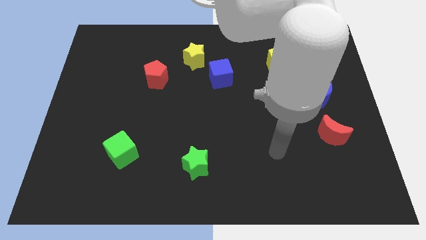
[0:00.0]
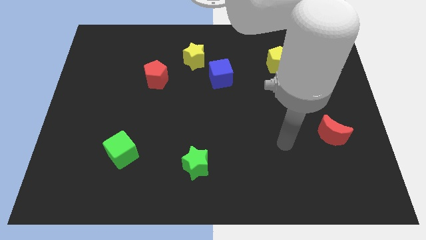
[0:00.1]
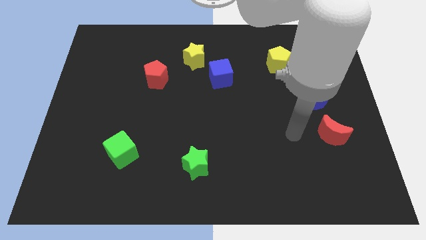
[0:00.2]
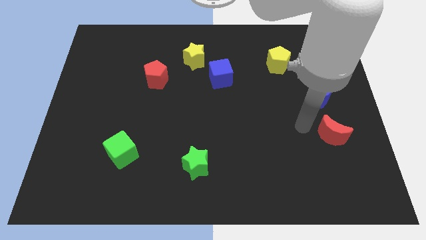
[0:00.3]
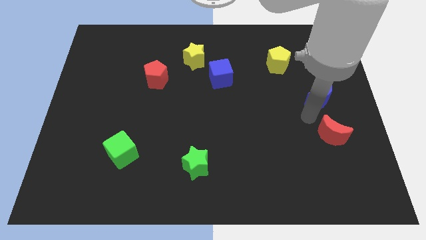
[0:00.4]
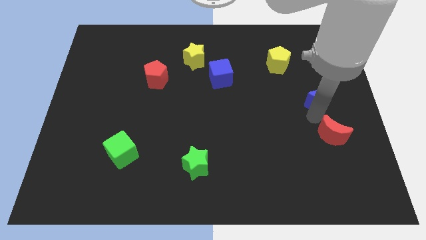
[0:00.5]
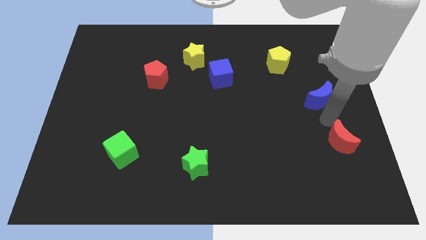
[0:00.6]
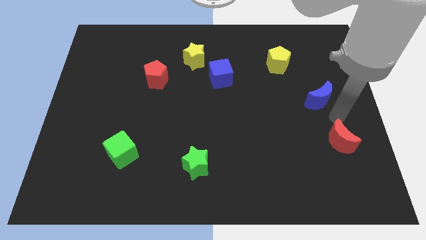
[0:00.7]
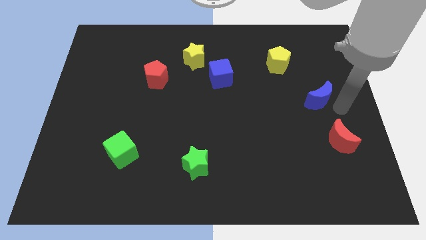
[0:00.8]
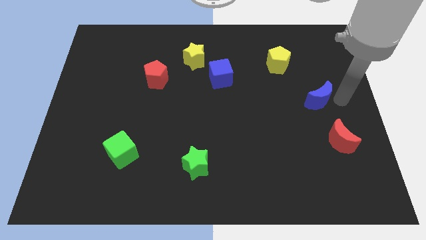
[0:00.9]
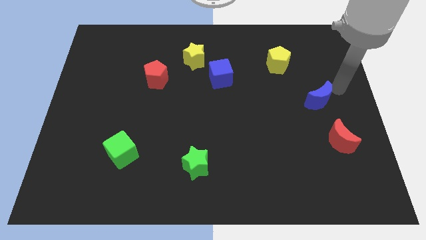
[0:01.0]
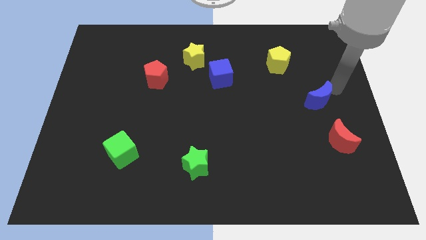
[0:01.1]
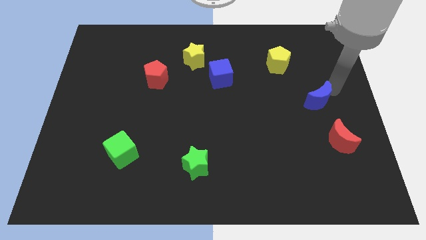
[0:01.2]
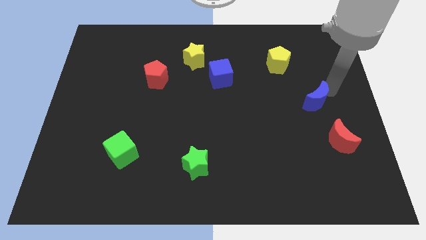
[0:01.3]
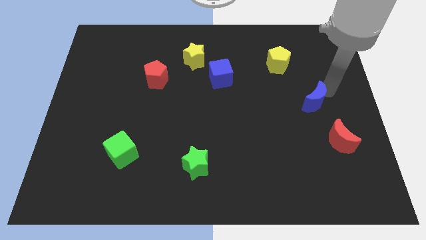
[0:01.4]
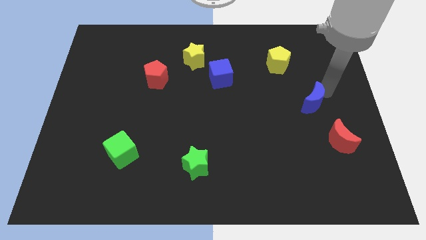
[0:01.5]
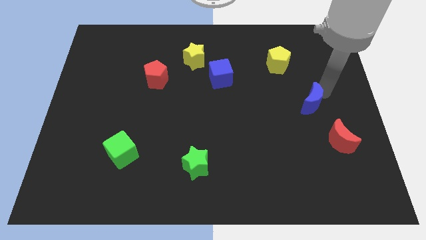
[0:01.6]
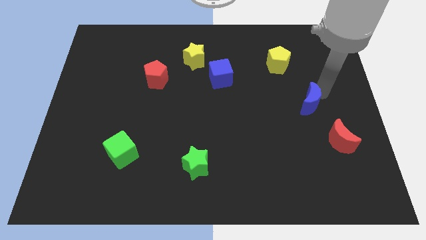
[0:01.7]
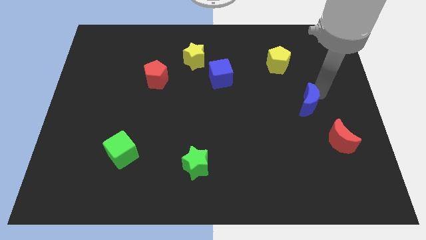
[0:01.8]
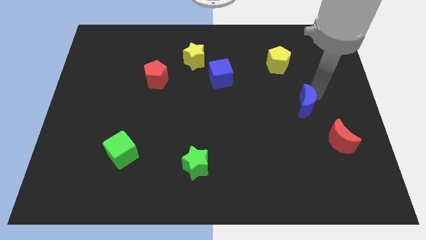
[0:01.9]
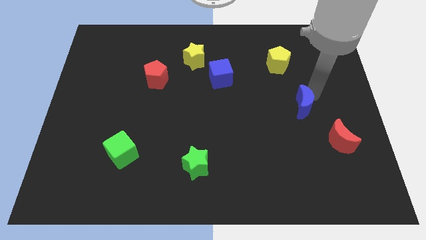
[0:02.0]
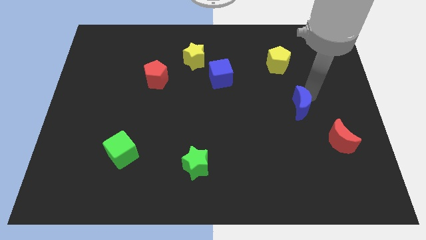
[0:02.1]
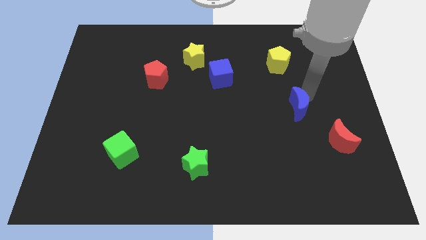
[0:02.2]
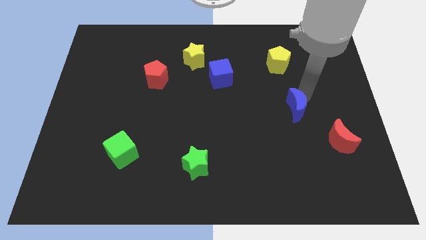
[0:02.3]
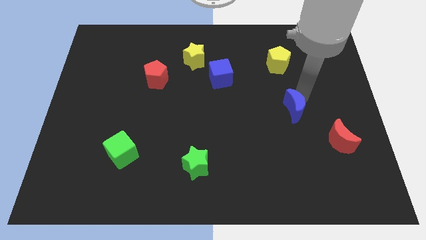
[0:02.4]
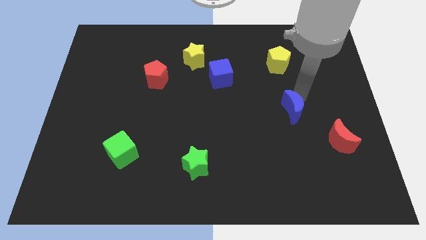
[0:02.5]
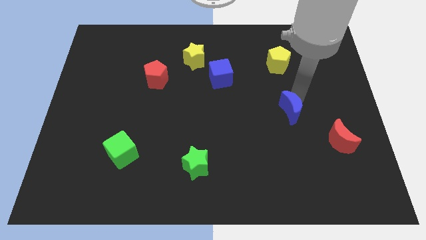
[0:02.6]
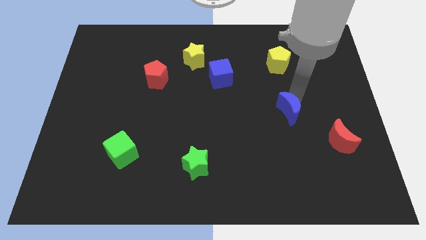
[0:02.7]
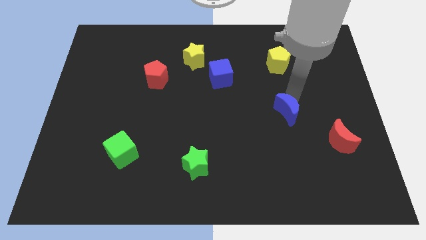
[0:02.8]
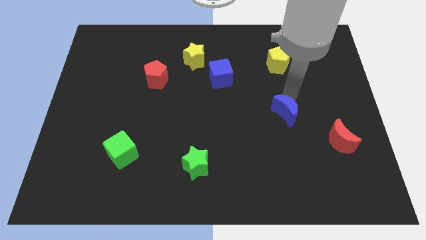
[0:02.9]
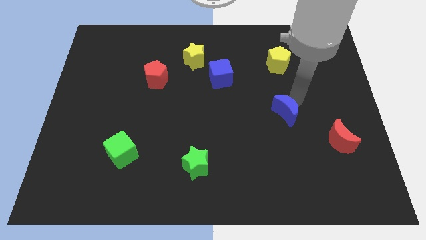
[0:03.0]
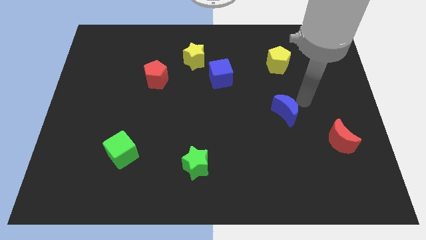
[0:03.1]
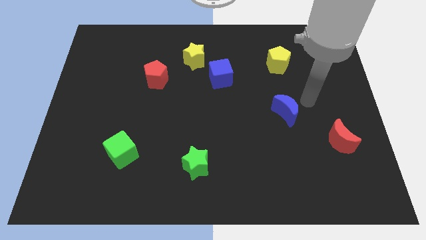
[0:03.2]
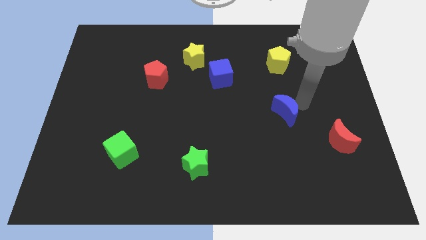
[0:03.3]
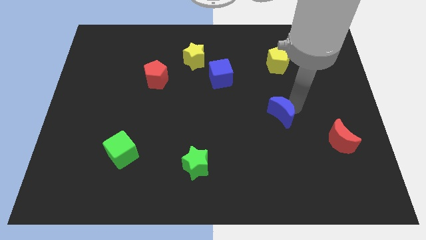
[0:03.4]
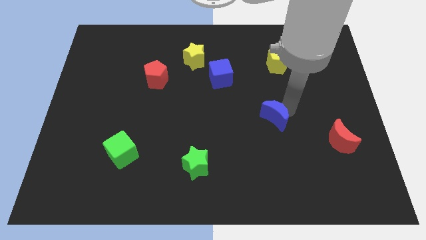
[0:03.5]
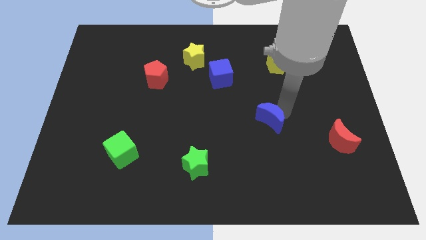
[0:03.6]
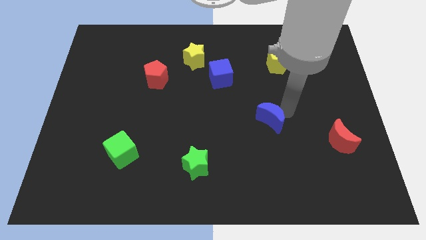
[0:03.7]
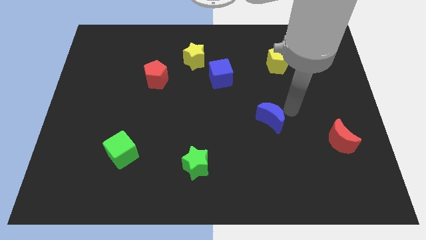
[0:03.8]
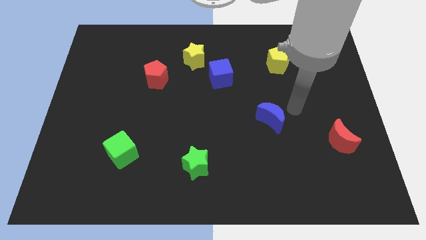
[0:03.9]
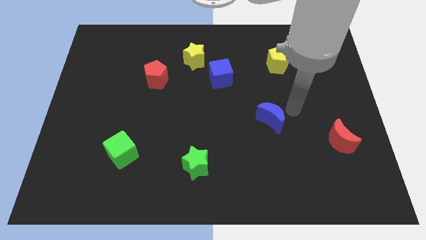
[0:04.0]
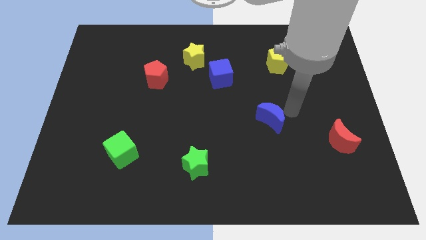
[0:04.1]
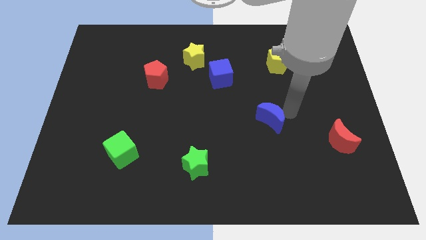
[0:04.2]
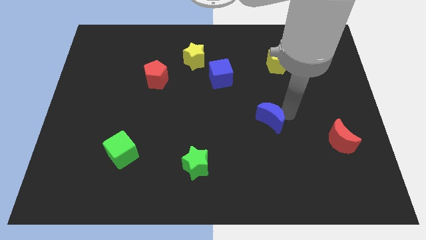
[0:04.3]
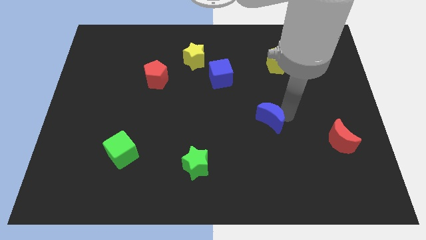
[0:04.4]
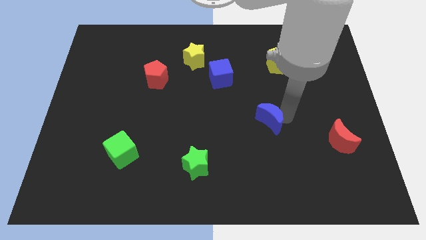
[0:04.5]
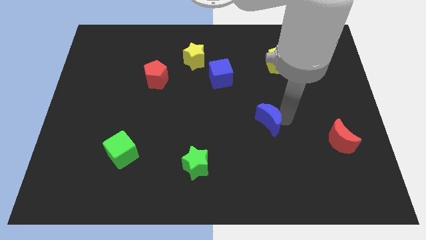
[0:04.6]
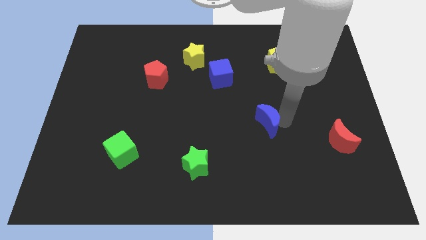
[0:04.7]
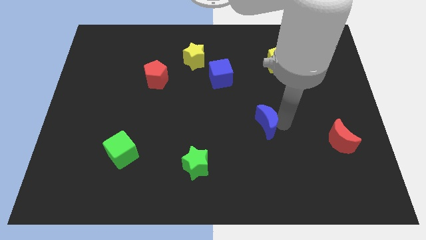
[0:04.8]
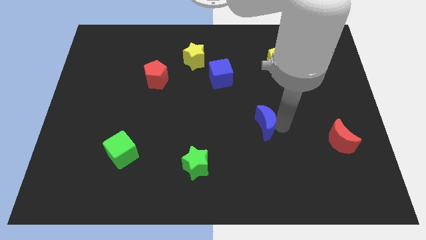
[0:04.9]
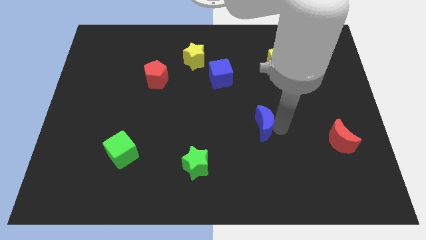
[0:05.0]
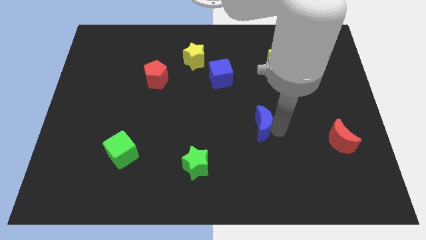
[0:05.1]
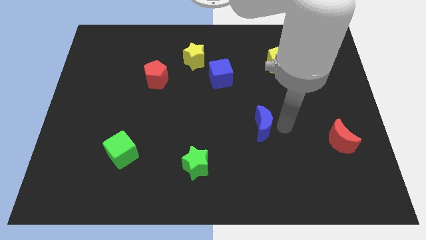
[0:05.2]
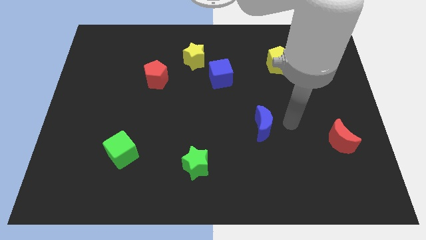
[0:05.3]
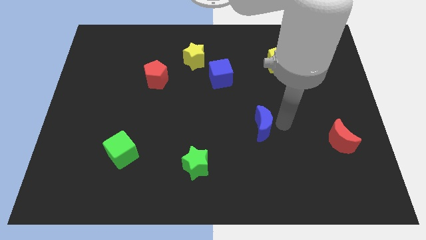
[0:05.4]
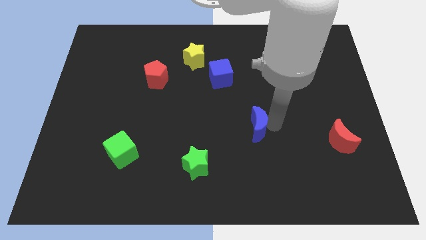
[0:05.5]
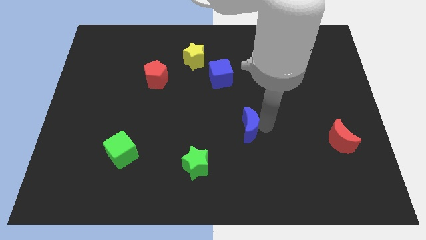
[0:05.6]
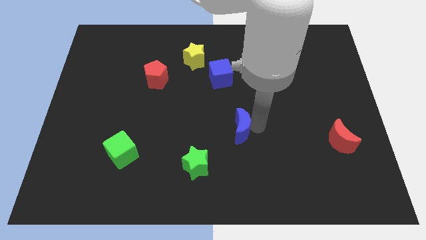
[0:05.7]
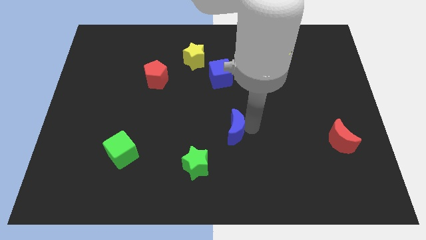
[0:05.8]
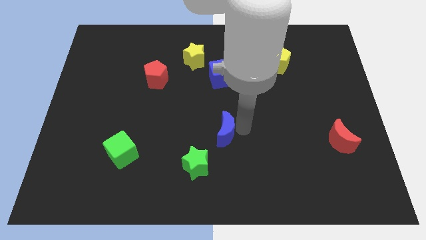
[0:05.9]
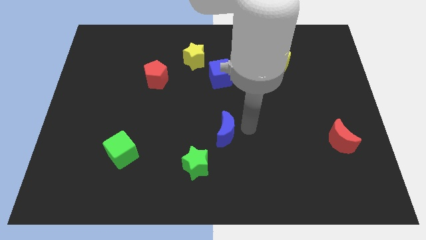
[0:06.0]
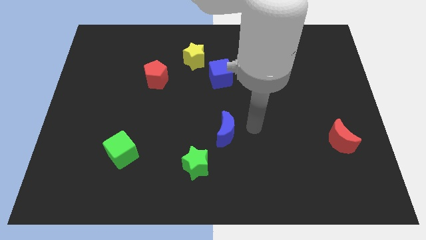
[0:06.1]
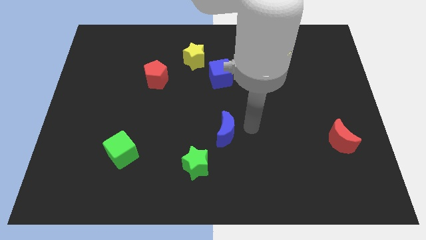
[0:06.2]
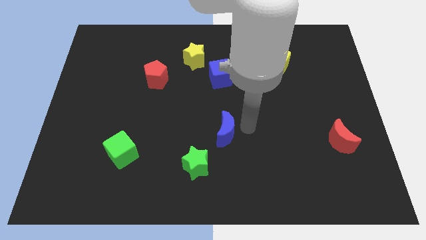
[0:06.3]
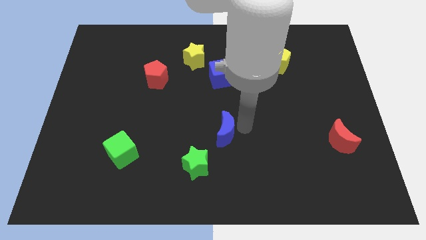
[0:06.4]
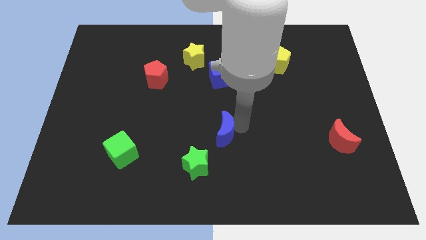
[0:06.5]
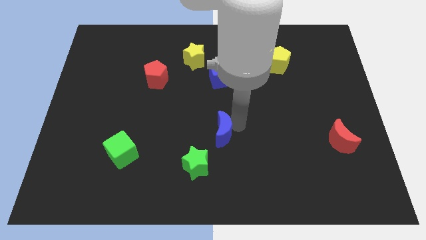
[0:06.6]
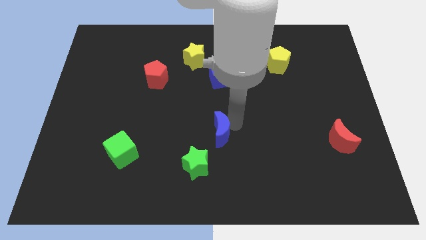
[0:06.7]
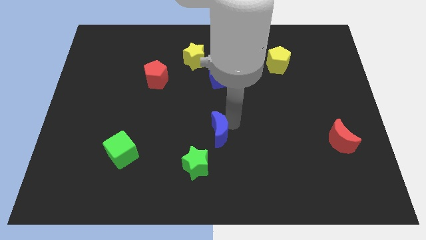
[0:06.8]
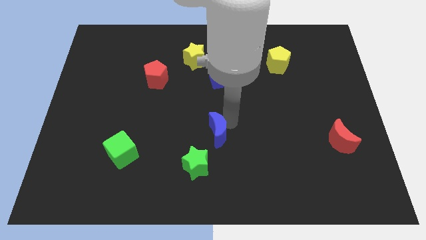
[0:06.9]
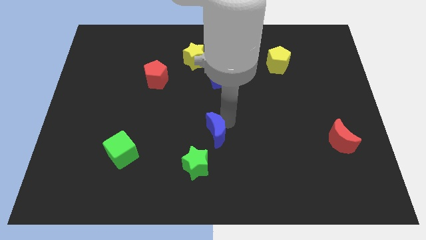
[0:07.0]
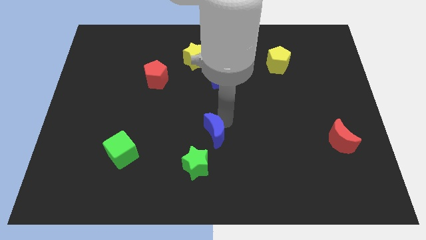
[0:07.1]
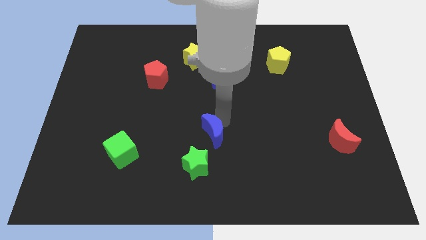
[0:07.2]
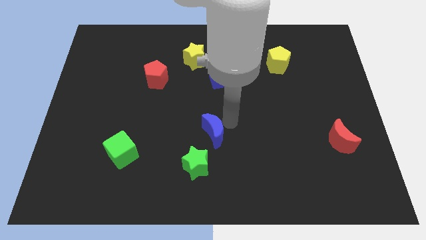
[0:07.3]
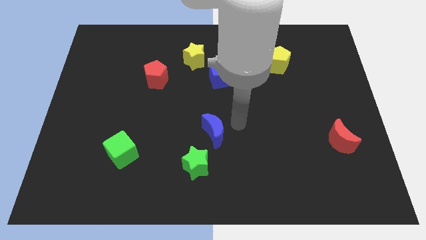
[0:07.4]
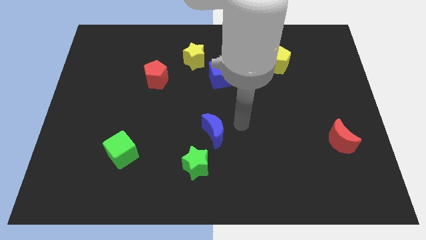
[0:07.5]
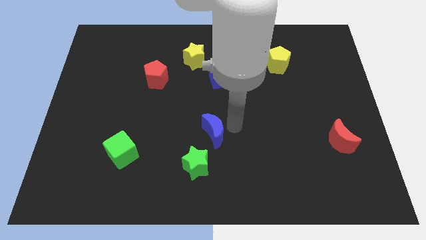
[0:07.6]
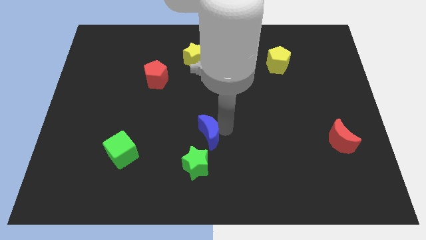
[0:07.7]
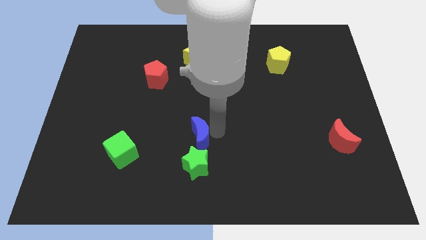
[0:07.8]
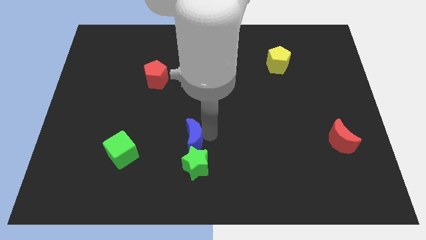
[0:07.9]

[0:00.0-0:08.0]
slide the blue moon to the top left side of the green star
